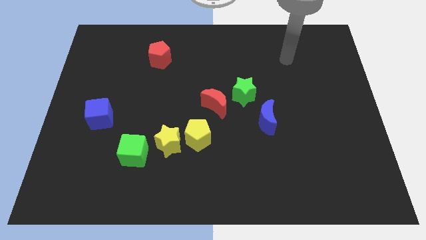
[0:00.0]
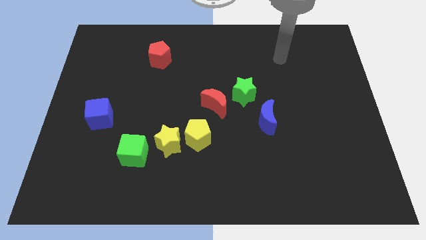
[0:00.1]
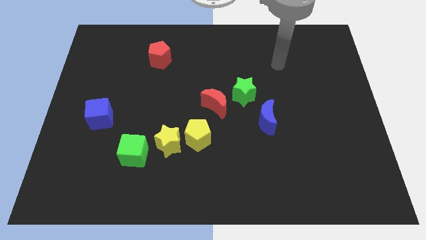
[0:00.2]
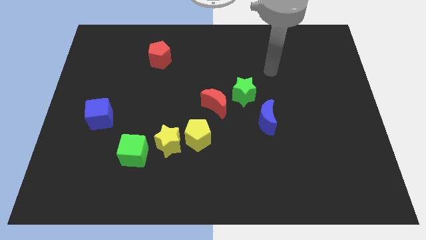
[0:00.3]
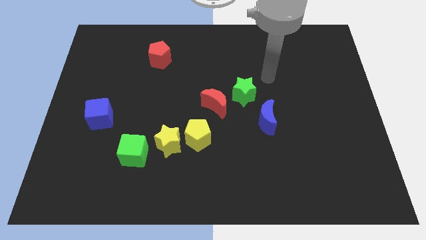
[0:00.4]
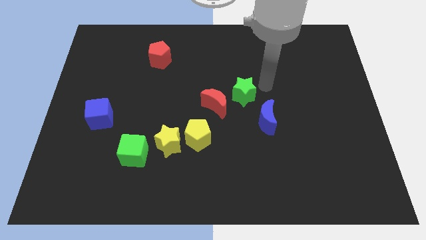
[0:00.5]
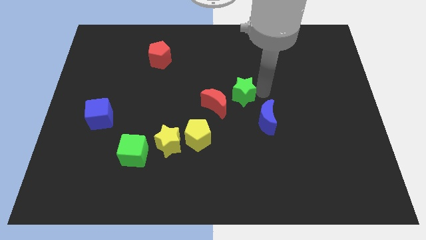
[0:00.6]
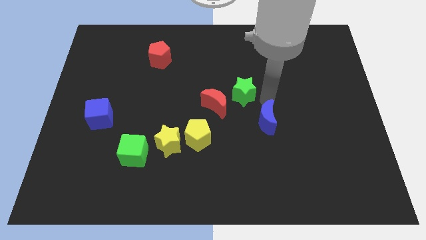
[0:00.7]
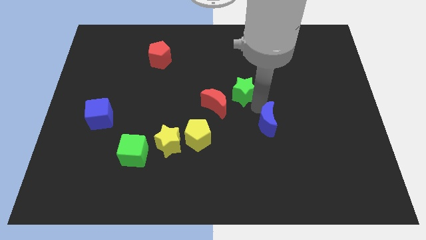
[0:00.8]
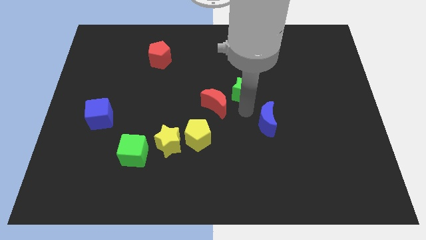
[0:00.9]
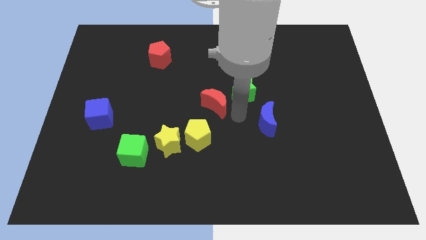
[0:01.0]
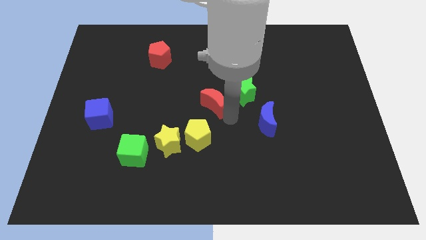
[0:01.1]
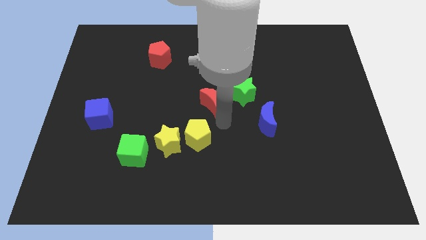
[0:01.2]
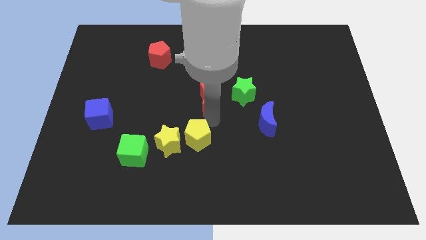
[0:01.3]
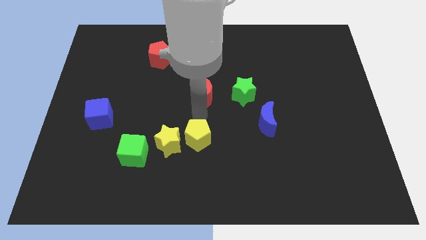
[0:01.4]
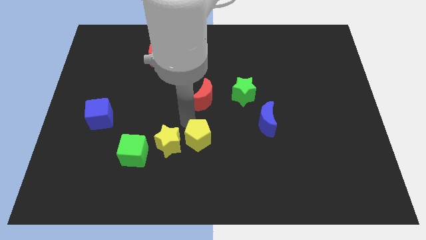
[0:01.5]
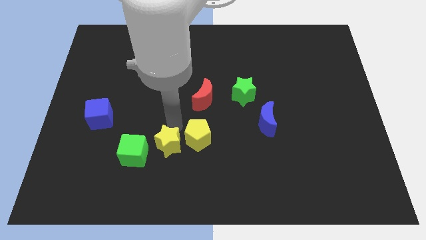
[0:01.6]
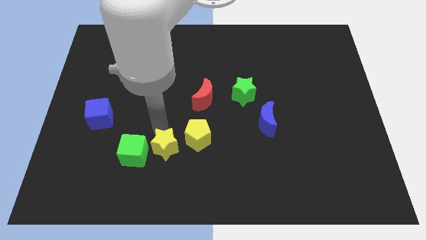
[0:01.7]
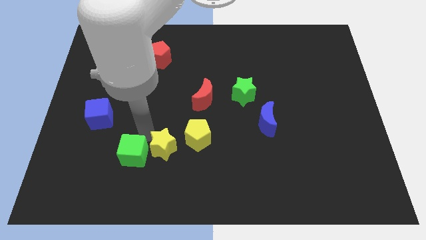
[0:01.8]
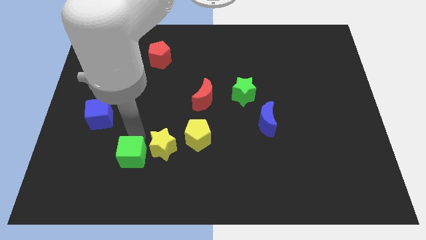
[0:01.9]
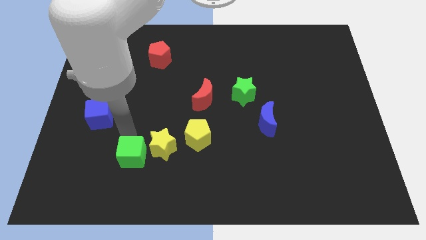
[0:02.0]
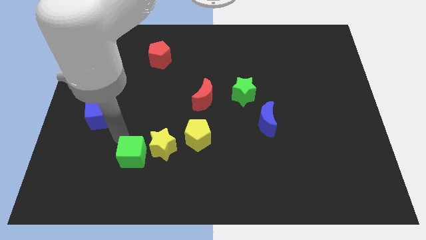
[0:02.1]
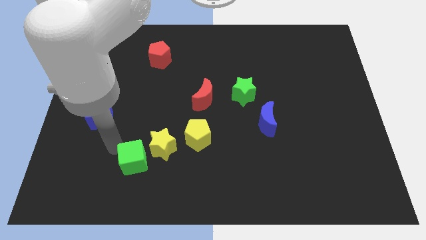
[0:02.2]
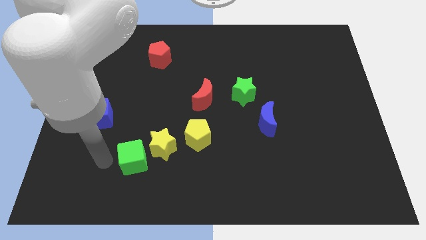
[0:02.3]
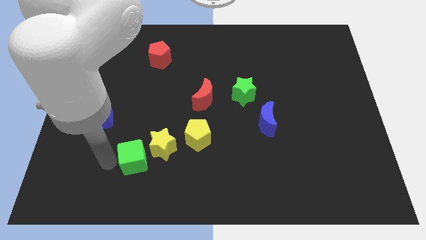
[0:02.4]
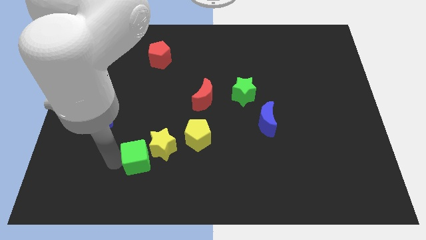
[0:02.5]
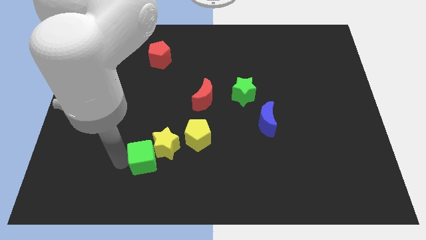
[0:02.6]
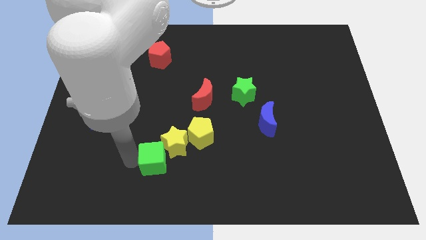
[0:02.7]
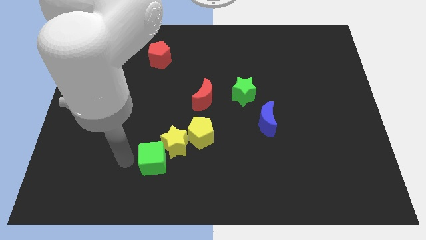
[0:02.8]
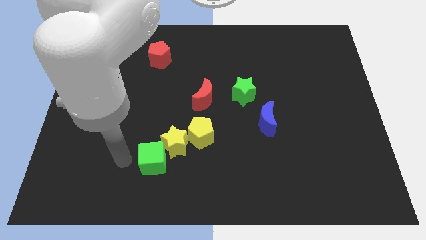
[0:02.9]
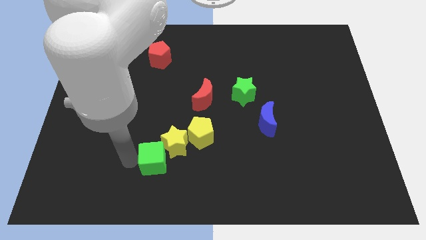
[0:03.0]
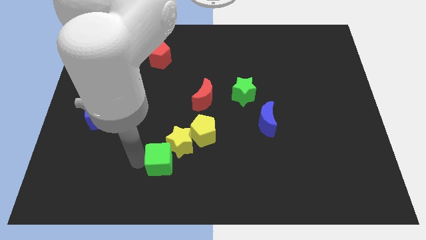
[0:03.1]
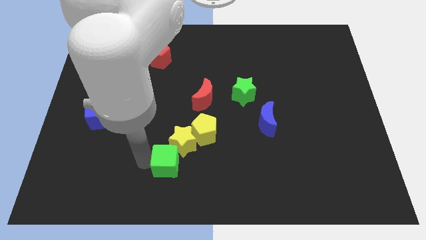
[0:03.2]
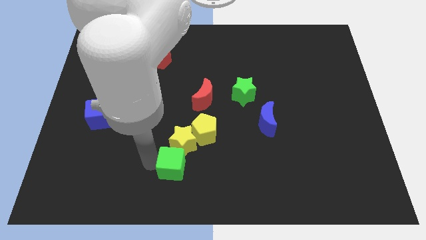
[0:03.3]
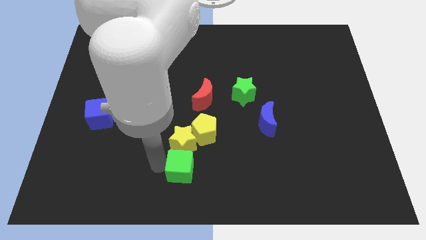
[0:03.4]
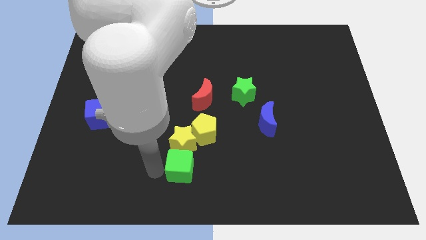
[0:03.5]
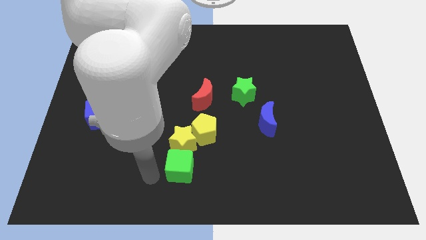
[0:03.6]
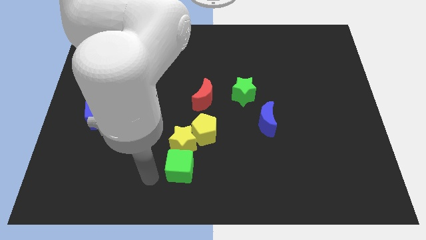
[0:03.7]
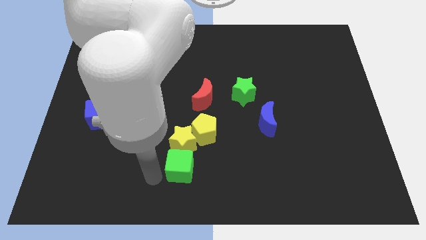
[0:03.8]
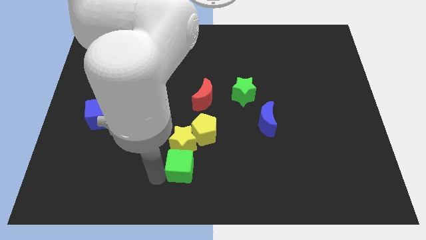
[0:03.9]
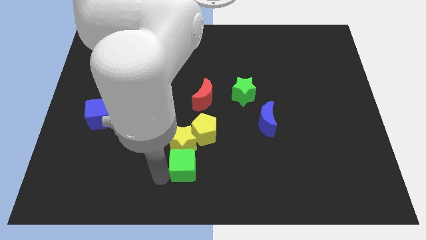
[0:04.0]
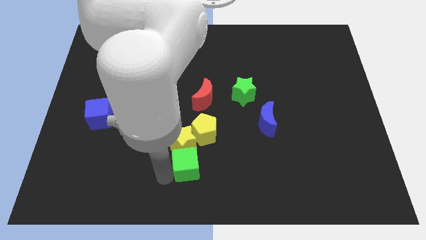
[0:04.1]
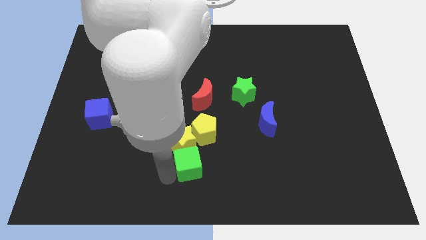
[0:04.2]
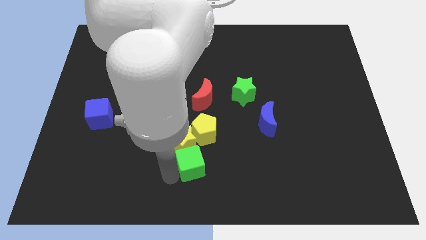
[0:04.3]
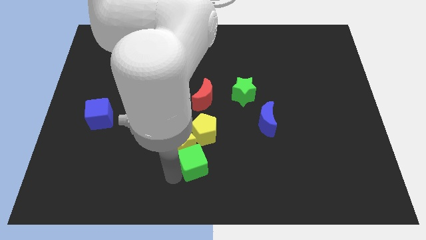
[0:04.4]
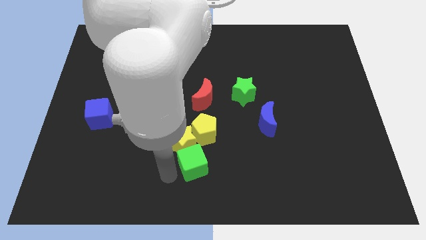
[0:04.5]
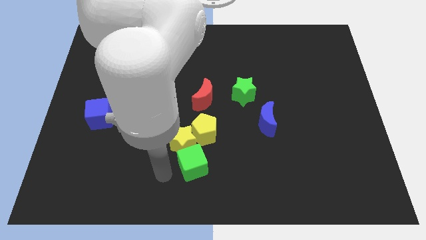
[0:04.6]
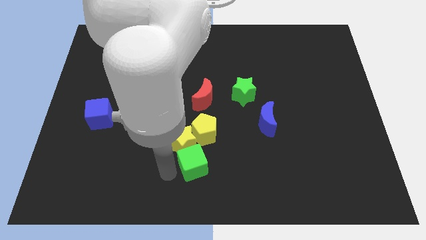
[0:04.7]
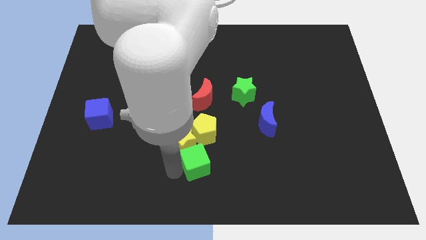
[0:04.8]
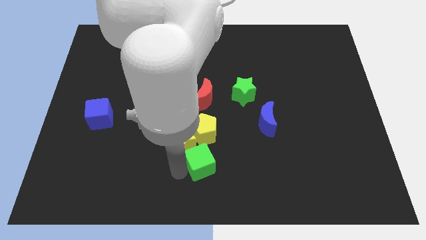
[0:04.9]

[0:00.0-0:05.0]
put the green cube to the right side of the yellow star

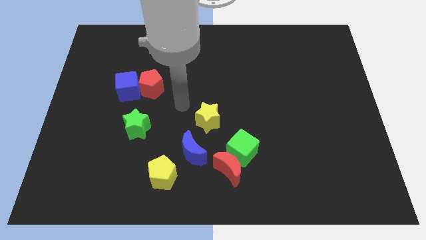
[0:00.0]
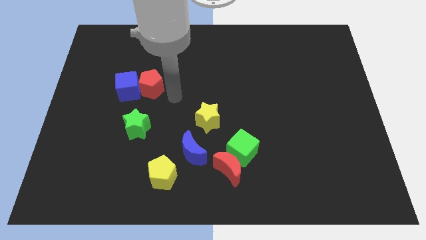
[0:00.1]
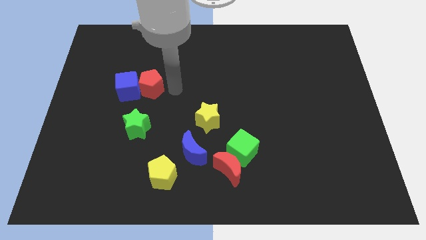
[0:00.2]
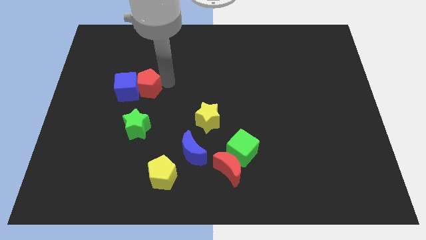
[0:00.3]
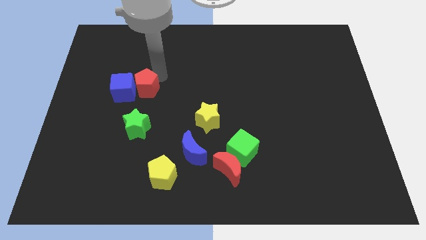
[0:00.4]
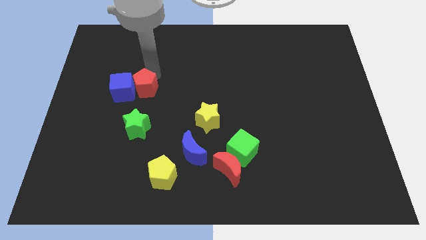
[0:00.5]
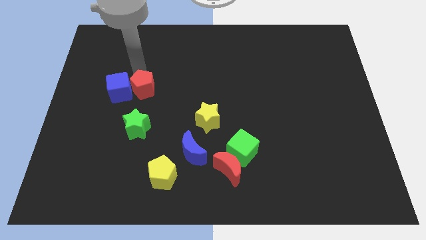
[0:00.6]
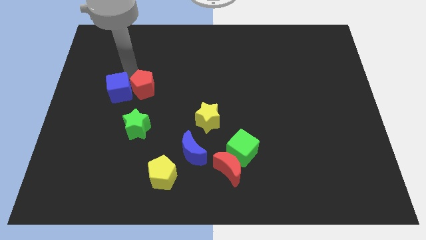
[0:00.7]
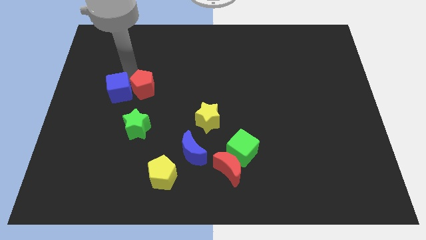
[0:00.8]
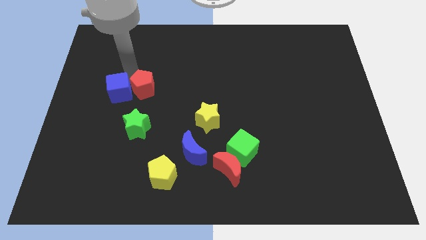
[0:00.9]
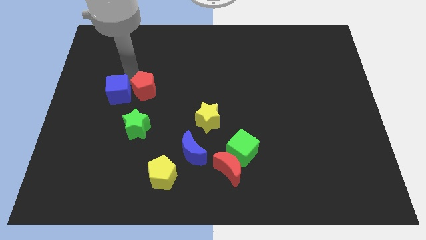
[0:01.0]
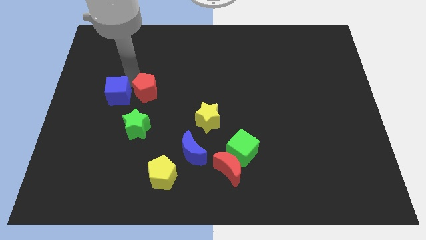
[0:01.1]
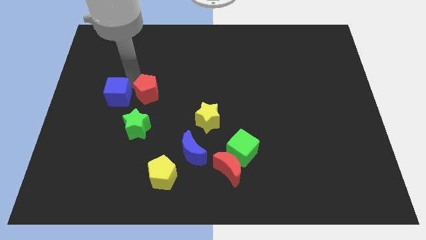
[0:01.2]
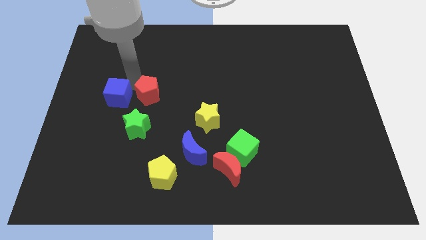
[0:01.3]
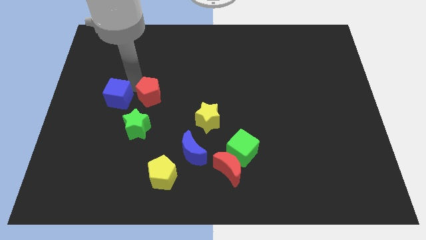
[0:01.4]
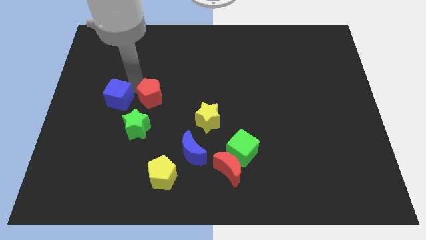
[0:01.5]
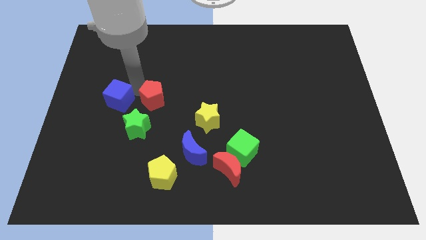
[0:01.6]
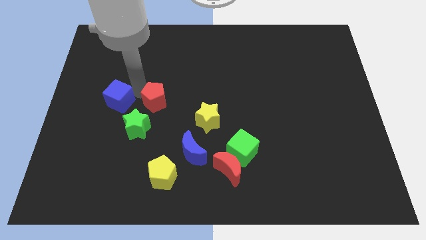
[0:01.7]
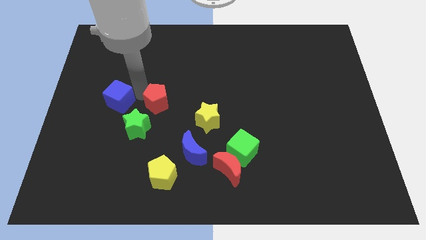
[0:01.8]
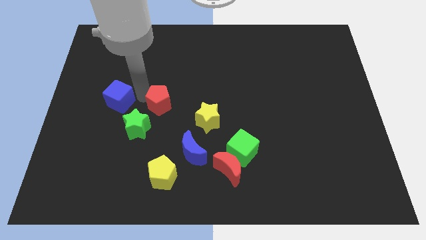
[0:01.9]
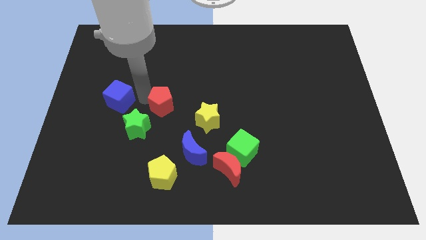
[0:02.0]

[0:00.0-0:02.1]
move the red pentagon to the left of the yellow star

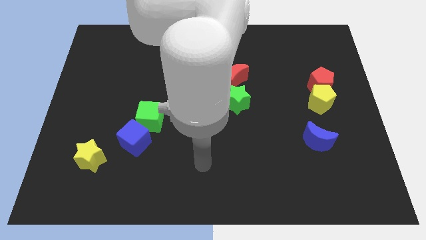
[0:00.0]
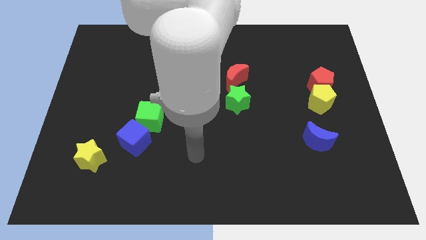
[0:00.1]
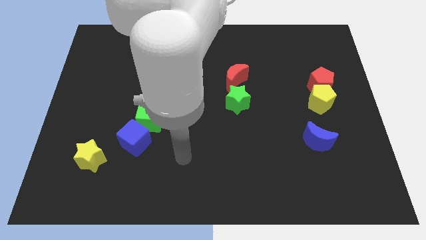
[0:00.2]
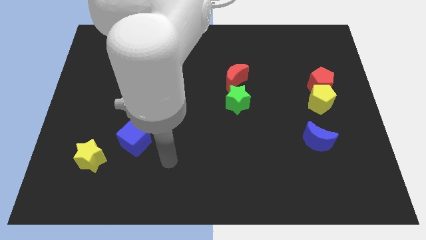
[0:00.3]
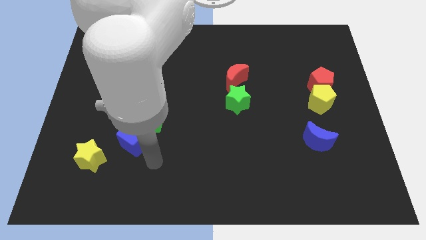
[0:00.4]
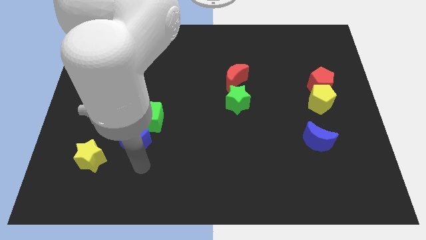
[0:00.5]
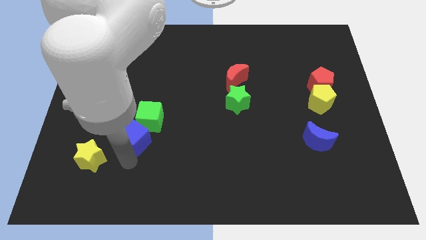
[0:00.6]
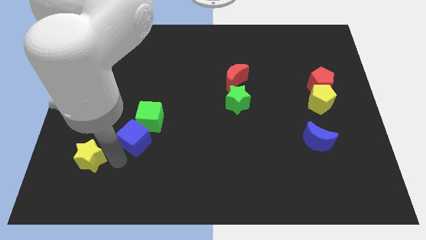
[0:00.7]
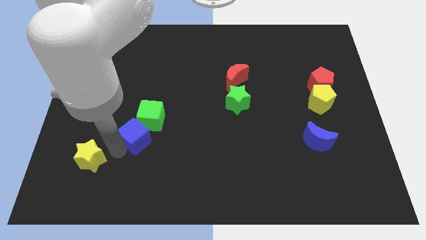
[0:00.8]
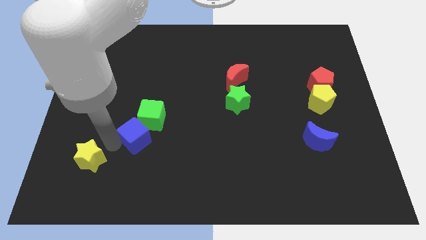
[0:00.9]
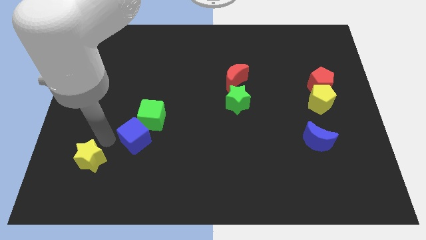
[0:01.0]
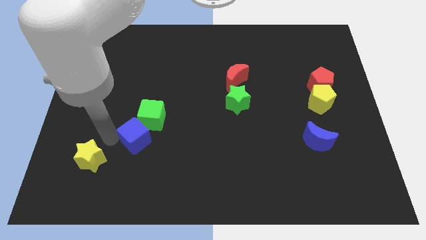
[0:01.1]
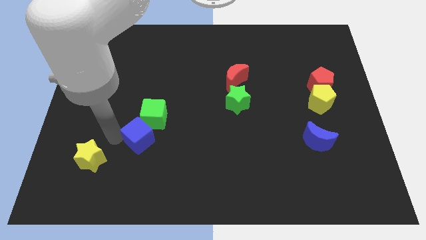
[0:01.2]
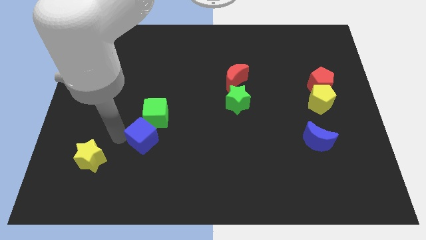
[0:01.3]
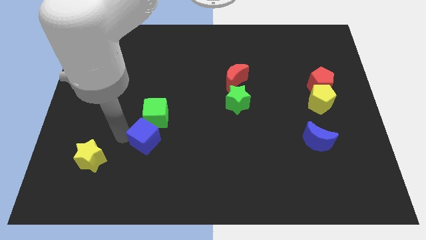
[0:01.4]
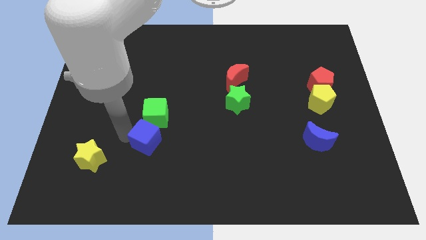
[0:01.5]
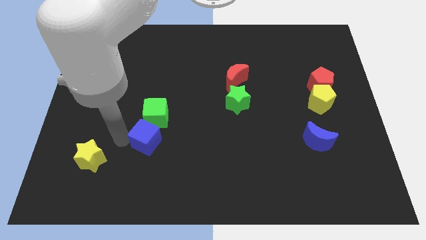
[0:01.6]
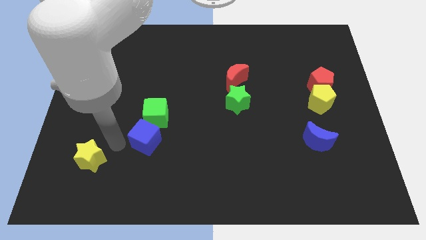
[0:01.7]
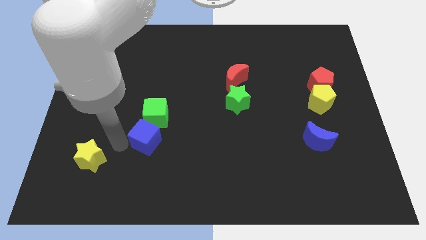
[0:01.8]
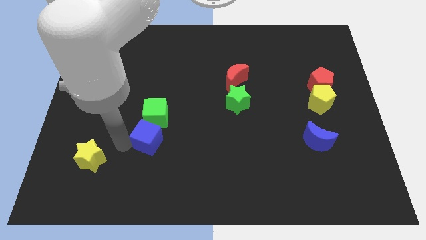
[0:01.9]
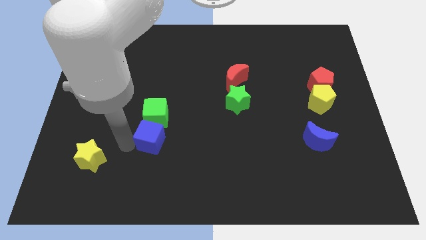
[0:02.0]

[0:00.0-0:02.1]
push the blue cube to the bottom right side of the green cube
